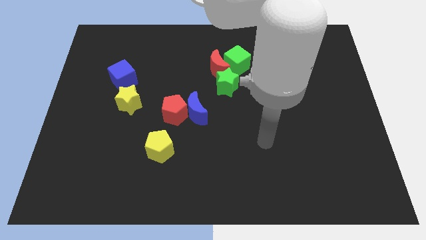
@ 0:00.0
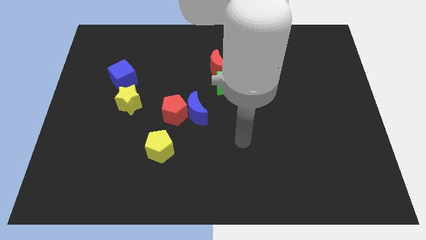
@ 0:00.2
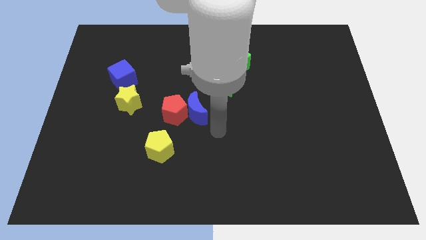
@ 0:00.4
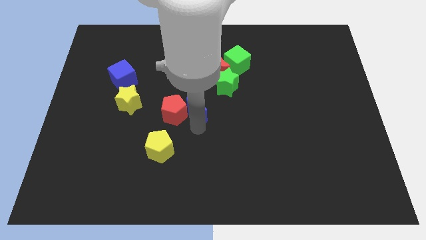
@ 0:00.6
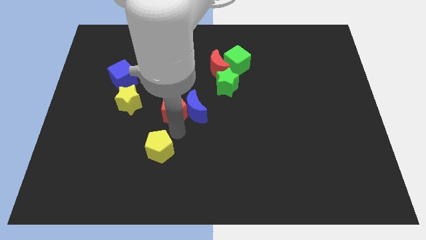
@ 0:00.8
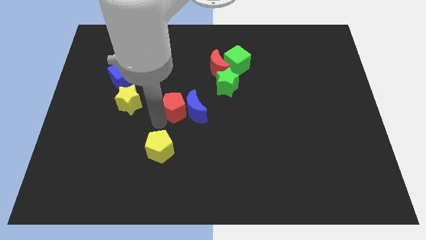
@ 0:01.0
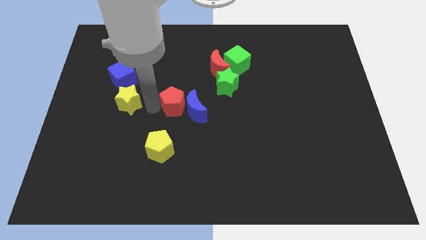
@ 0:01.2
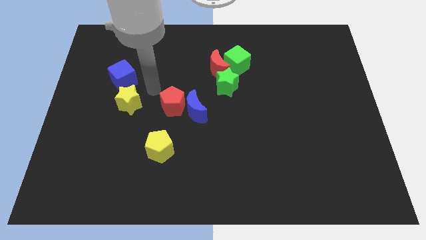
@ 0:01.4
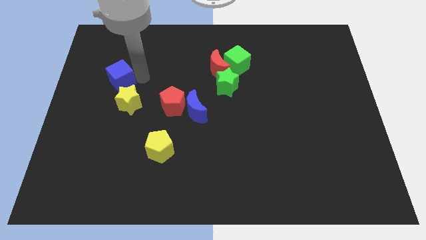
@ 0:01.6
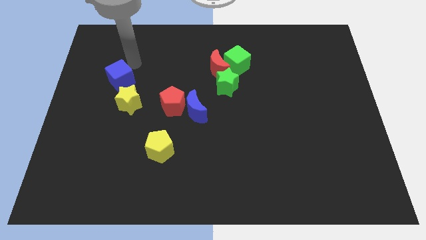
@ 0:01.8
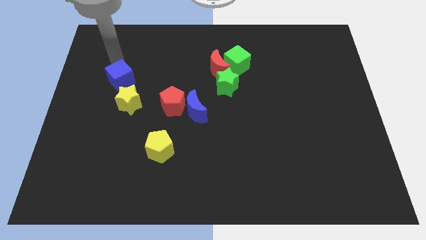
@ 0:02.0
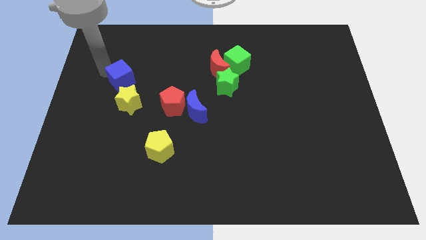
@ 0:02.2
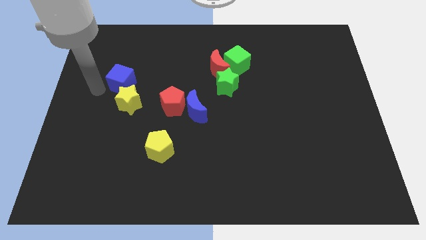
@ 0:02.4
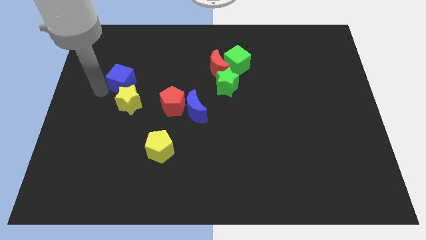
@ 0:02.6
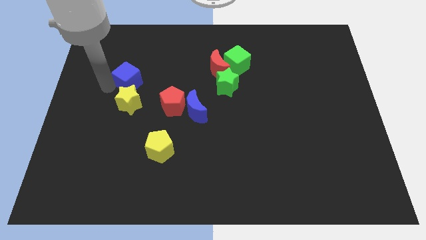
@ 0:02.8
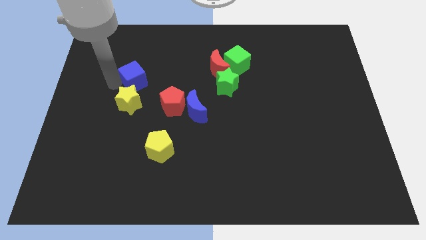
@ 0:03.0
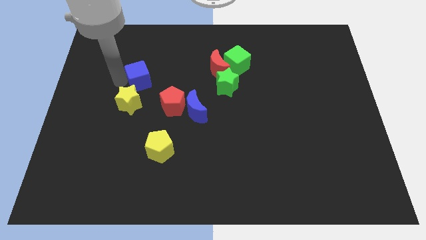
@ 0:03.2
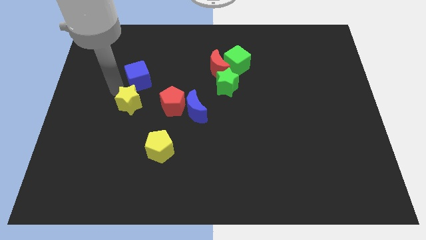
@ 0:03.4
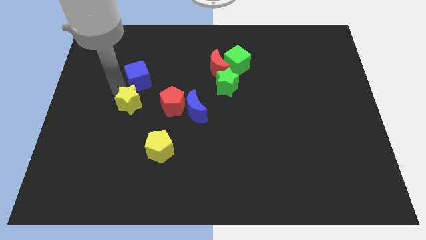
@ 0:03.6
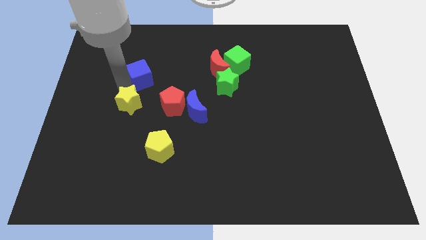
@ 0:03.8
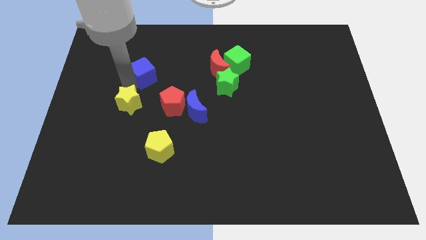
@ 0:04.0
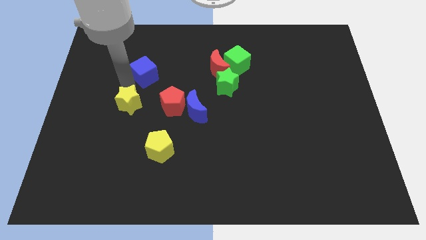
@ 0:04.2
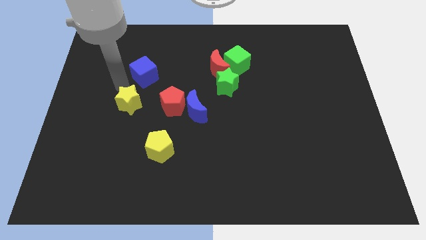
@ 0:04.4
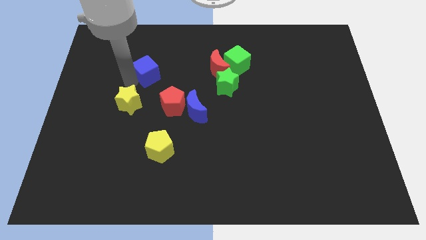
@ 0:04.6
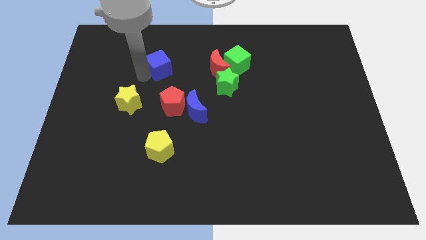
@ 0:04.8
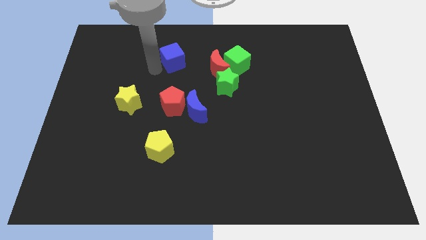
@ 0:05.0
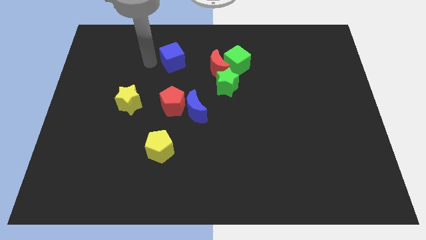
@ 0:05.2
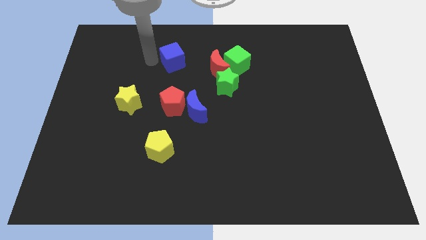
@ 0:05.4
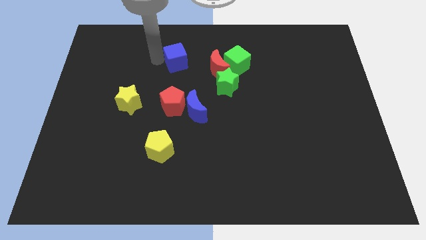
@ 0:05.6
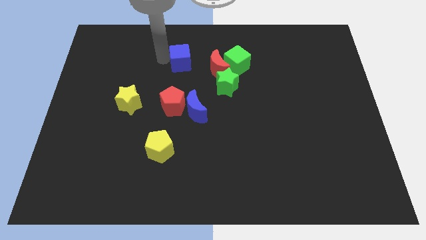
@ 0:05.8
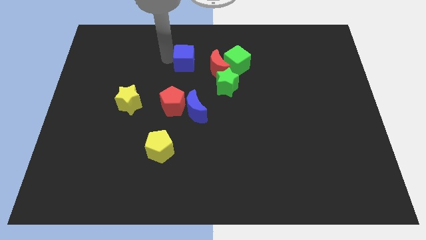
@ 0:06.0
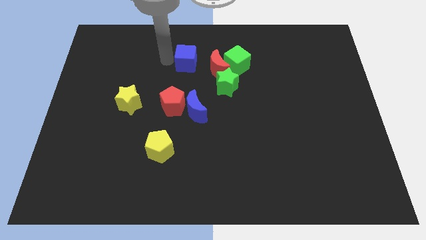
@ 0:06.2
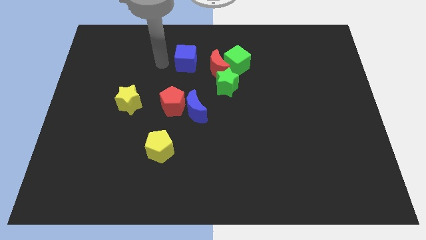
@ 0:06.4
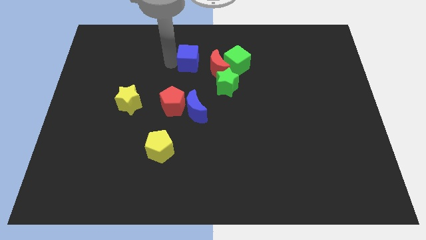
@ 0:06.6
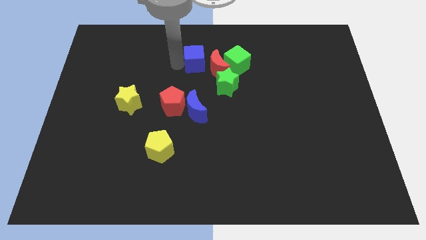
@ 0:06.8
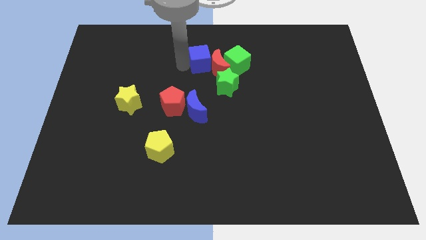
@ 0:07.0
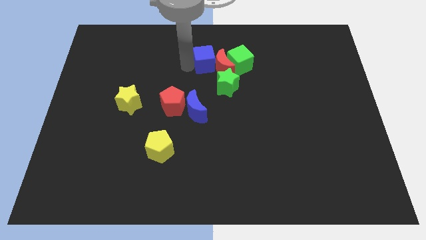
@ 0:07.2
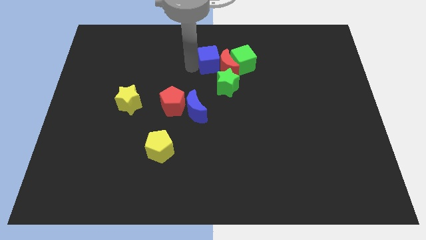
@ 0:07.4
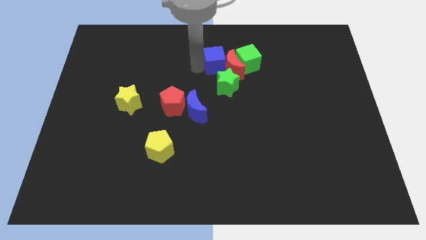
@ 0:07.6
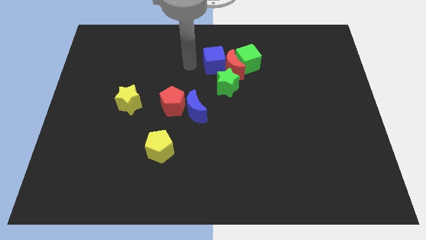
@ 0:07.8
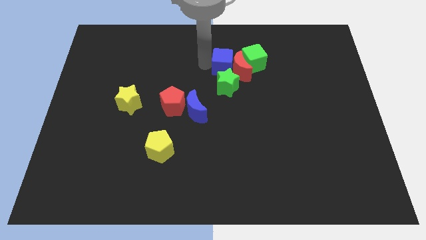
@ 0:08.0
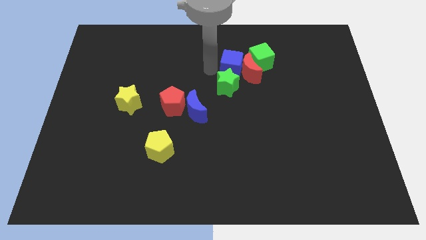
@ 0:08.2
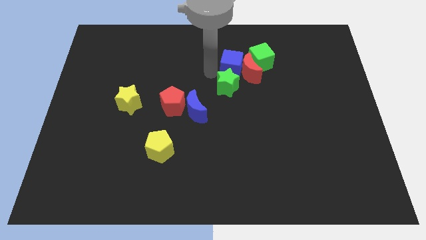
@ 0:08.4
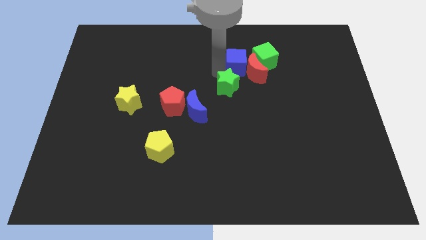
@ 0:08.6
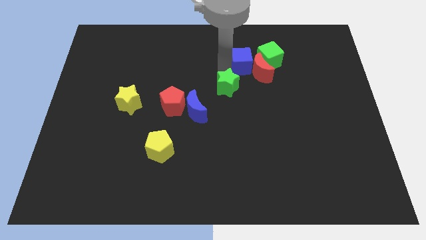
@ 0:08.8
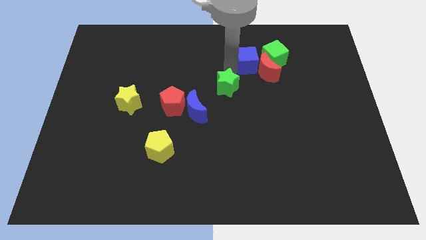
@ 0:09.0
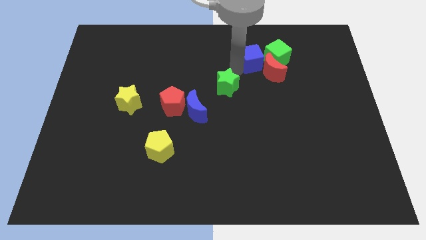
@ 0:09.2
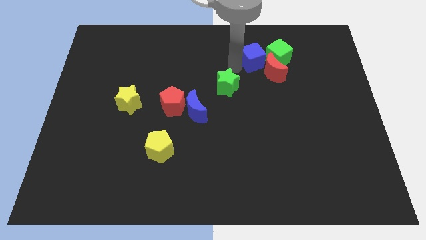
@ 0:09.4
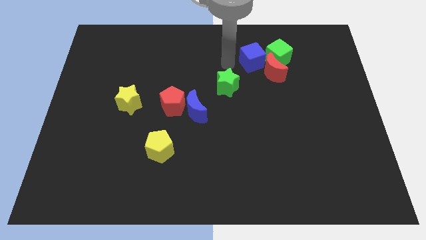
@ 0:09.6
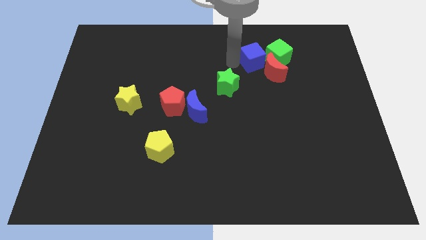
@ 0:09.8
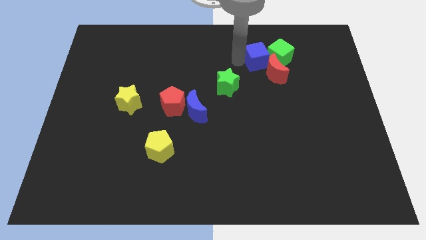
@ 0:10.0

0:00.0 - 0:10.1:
push the blue cube towards the green cube

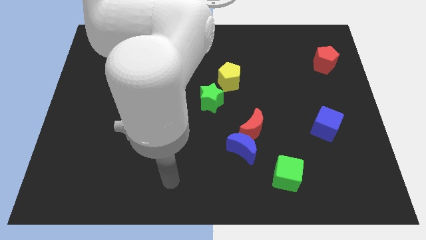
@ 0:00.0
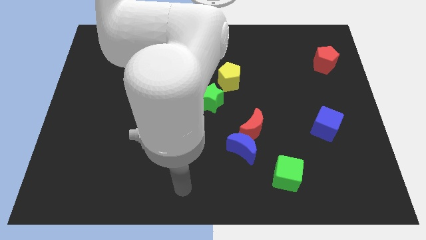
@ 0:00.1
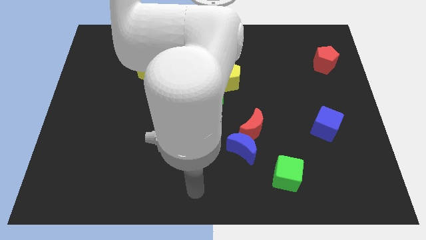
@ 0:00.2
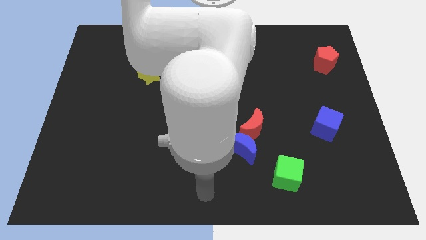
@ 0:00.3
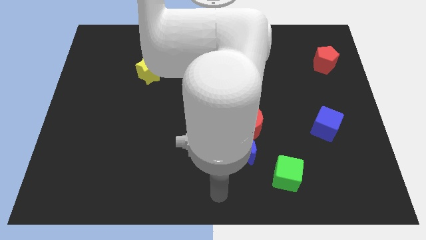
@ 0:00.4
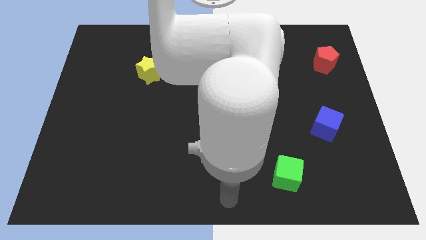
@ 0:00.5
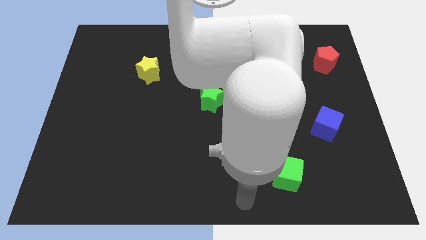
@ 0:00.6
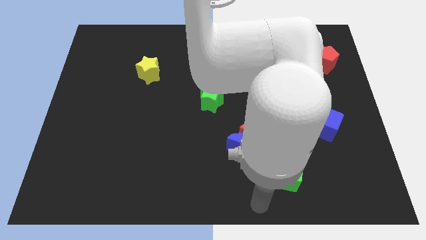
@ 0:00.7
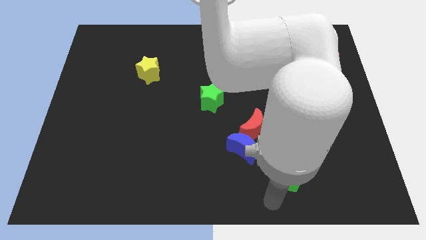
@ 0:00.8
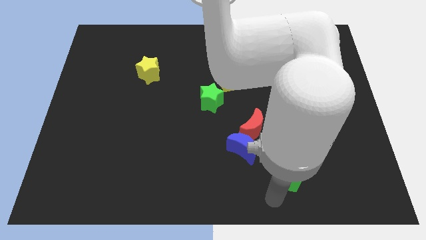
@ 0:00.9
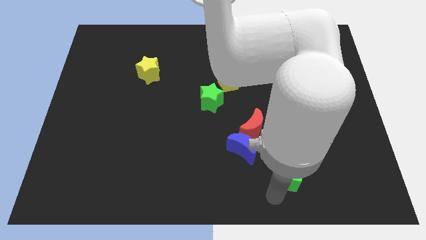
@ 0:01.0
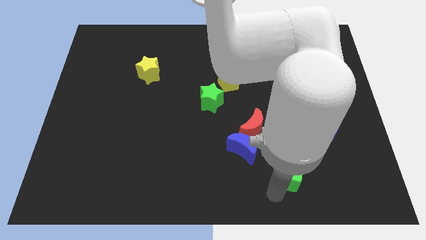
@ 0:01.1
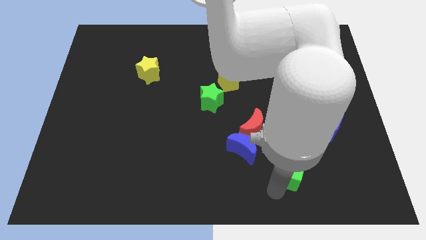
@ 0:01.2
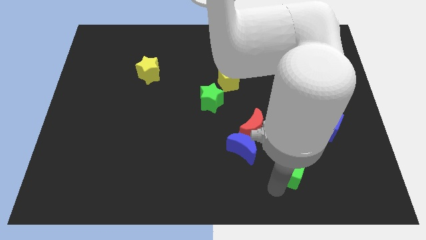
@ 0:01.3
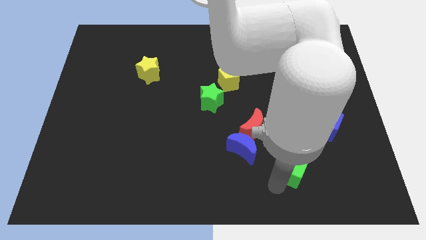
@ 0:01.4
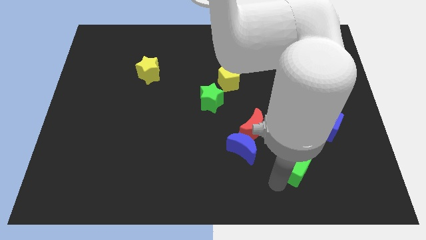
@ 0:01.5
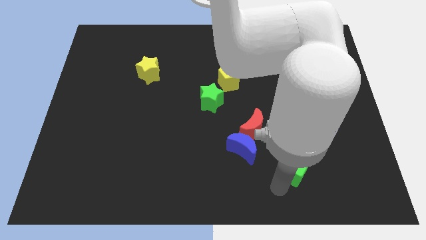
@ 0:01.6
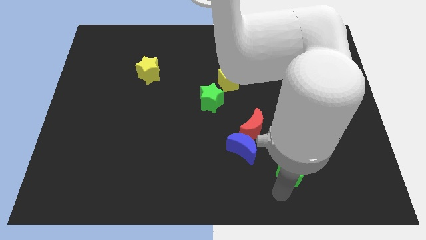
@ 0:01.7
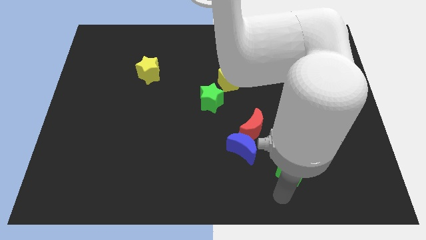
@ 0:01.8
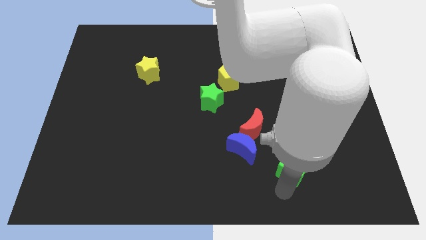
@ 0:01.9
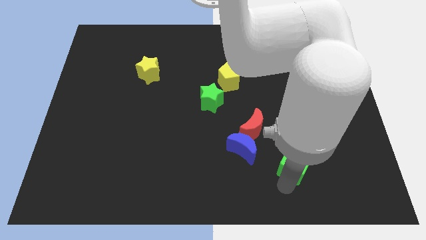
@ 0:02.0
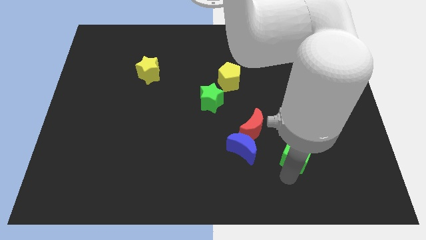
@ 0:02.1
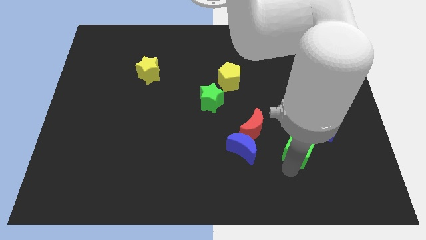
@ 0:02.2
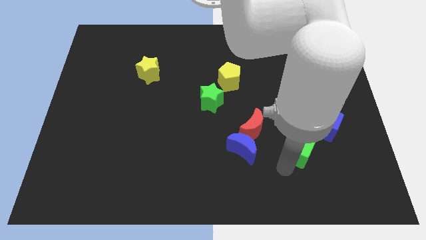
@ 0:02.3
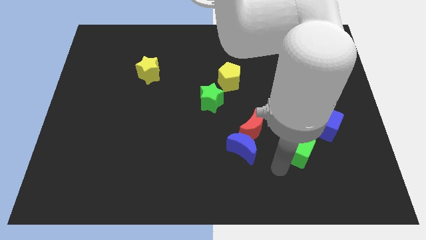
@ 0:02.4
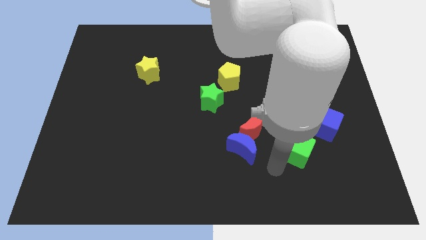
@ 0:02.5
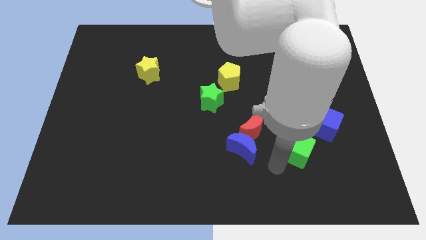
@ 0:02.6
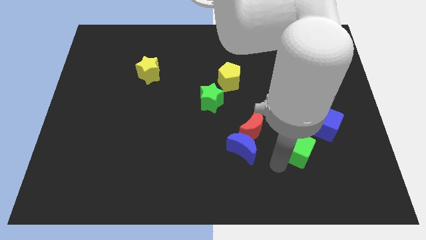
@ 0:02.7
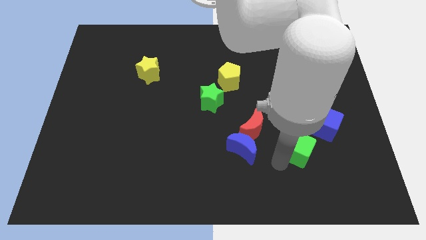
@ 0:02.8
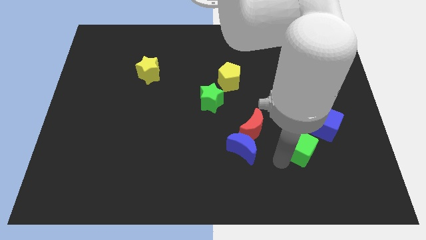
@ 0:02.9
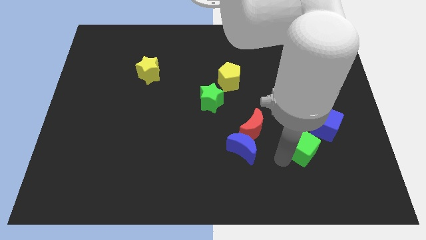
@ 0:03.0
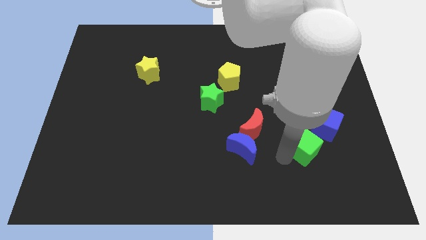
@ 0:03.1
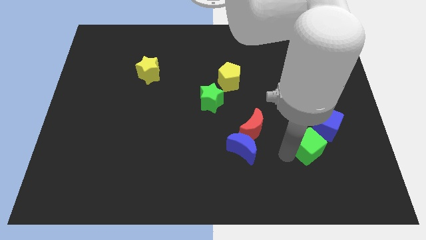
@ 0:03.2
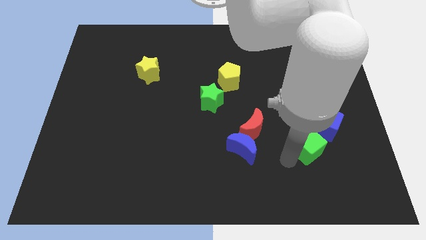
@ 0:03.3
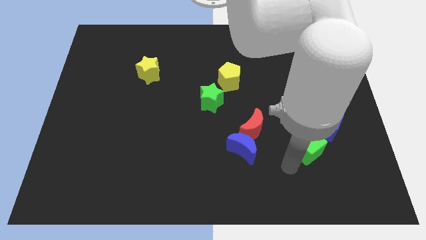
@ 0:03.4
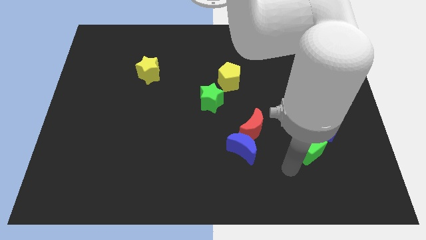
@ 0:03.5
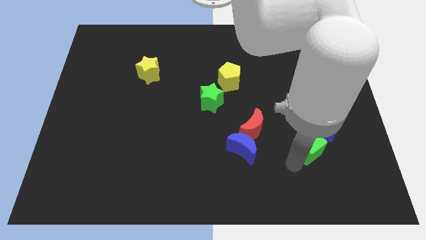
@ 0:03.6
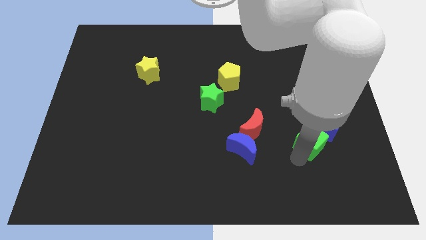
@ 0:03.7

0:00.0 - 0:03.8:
put the green cube to the blue cube
